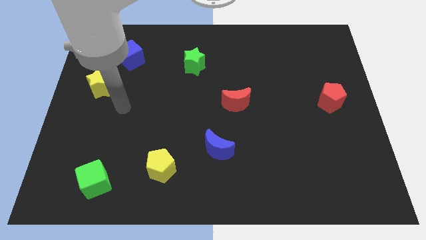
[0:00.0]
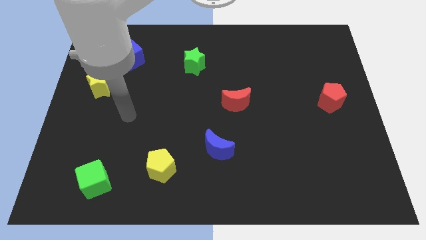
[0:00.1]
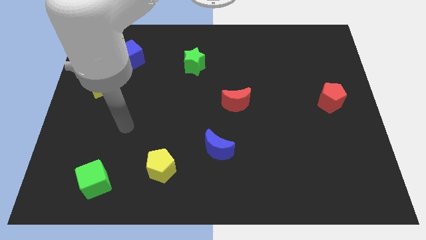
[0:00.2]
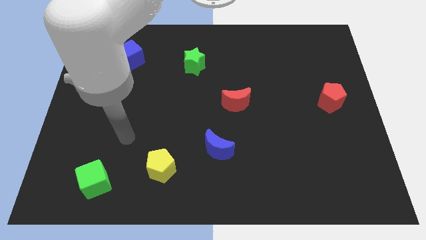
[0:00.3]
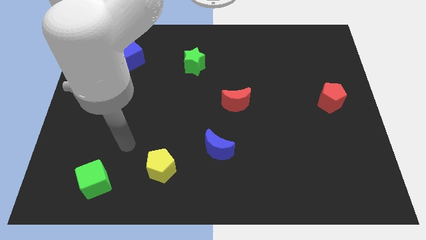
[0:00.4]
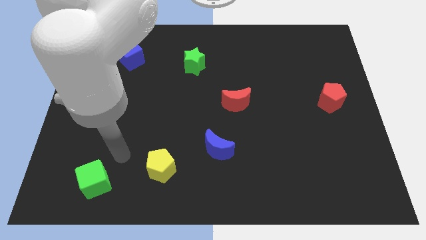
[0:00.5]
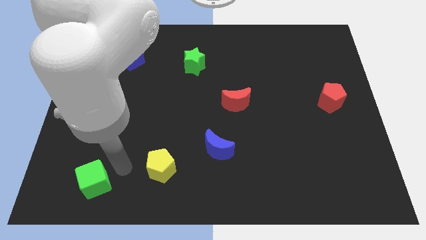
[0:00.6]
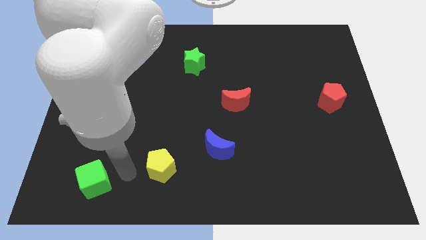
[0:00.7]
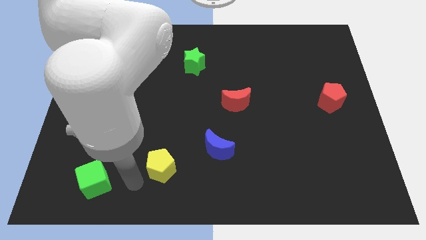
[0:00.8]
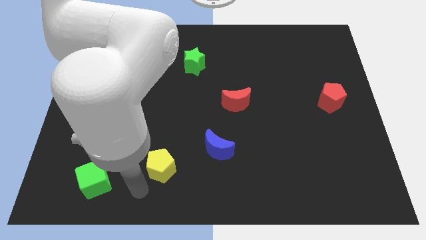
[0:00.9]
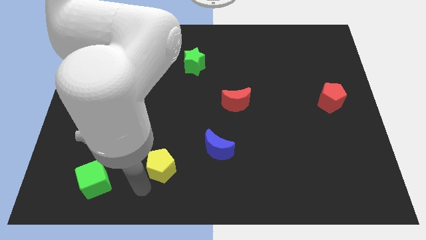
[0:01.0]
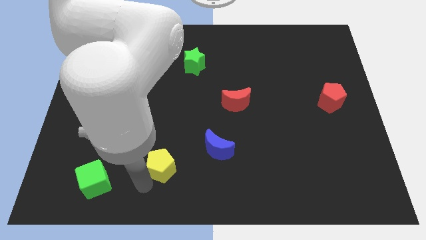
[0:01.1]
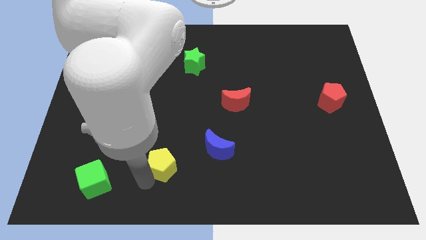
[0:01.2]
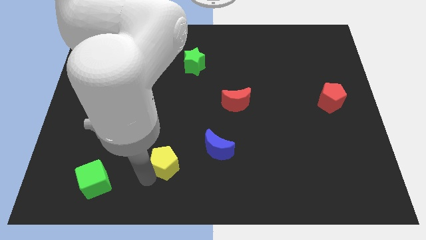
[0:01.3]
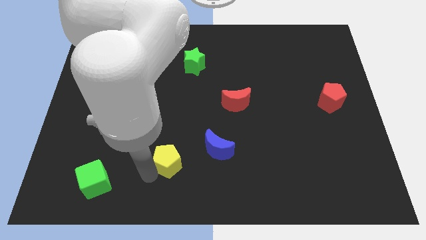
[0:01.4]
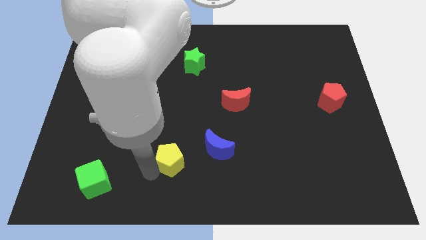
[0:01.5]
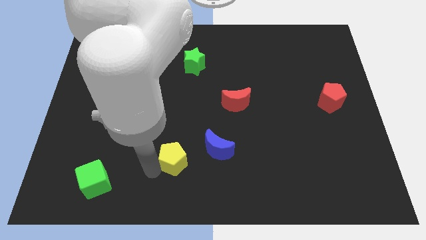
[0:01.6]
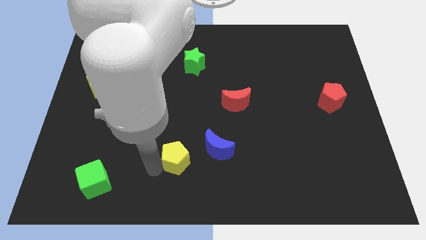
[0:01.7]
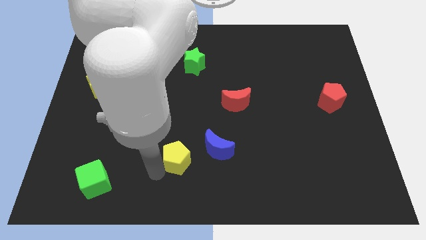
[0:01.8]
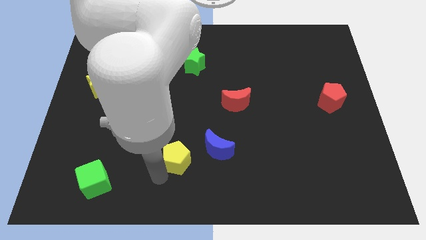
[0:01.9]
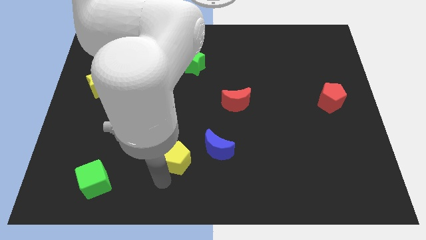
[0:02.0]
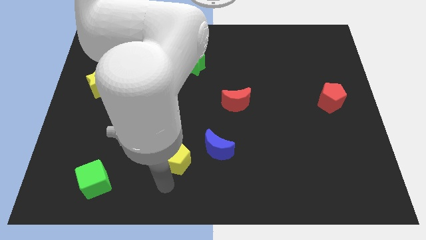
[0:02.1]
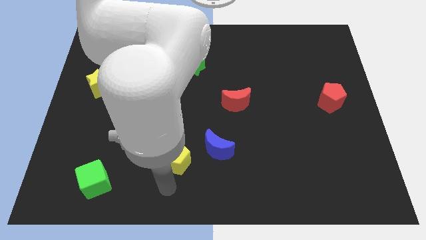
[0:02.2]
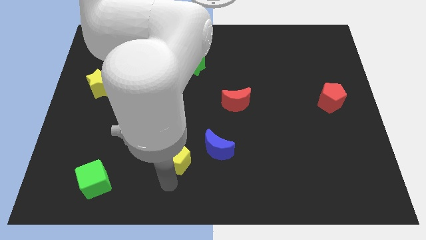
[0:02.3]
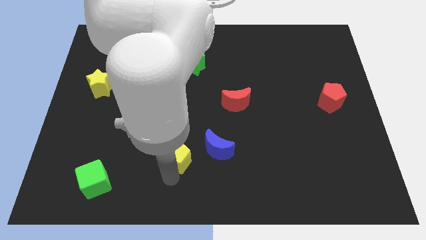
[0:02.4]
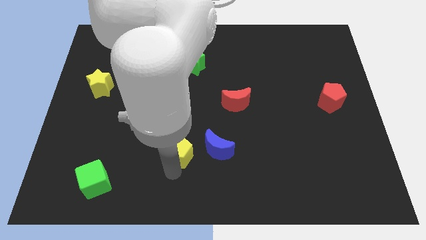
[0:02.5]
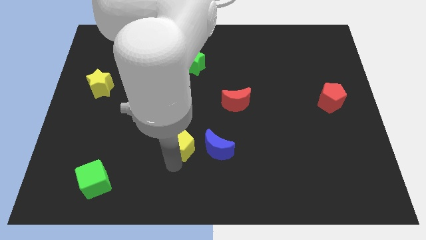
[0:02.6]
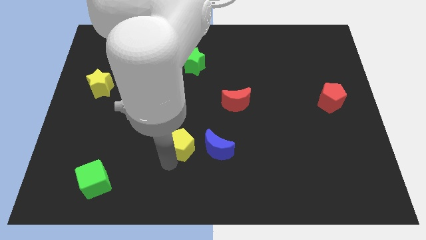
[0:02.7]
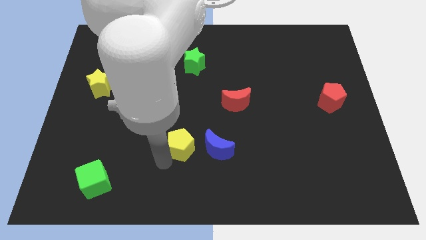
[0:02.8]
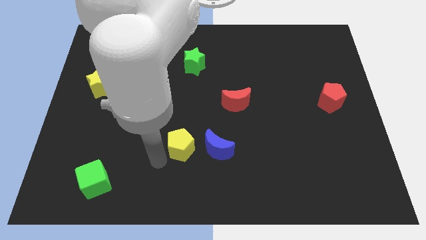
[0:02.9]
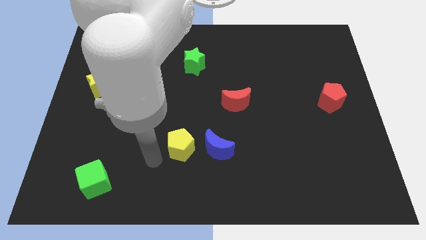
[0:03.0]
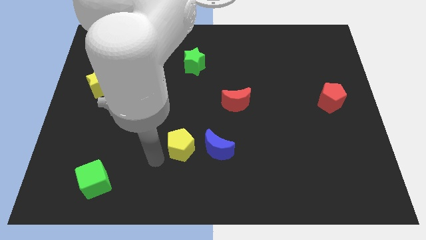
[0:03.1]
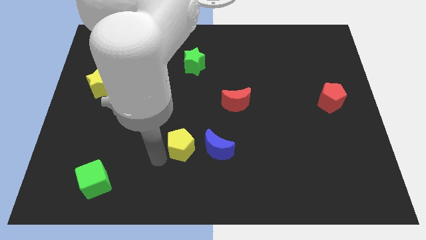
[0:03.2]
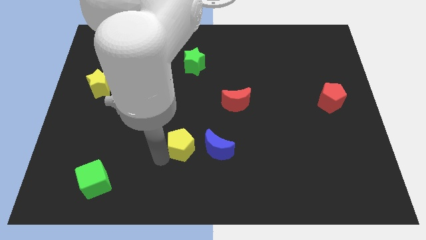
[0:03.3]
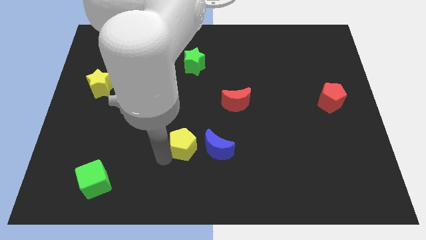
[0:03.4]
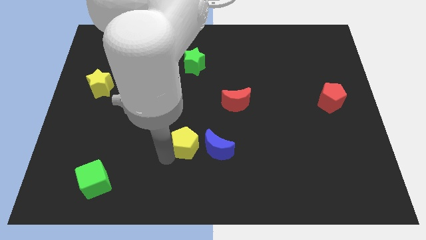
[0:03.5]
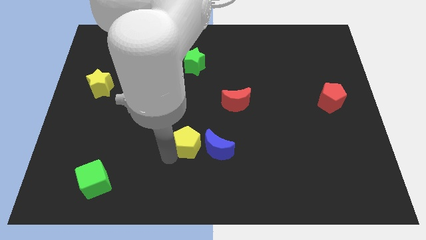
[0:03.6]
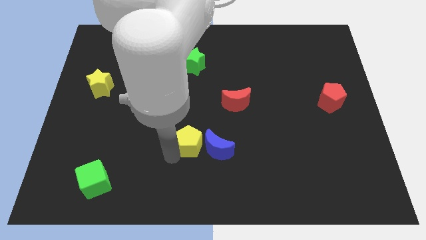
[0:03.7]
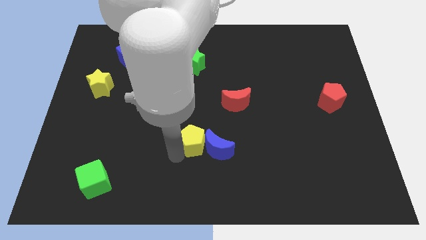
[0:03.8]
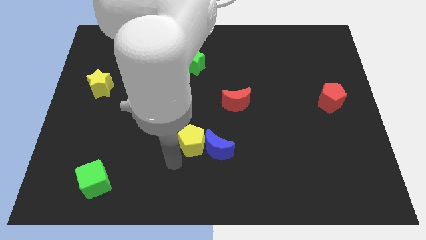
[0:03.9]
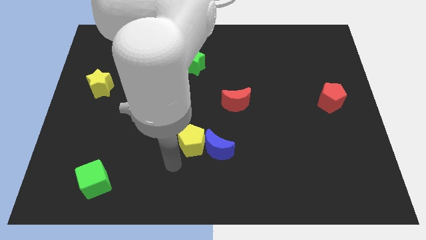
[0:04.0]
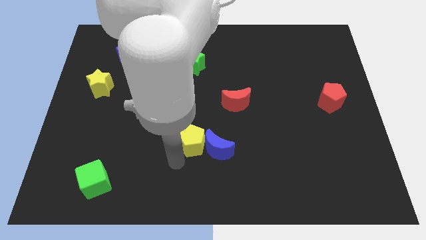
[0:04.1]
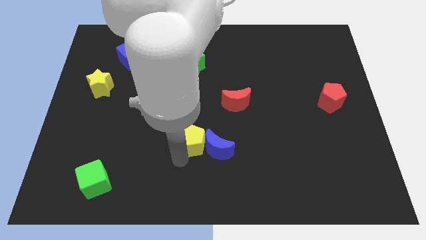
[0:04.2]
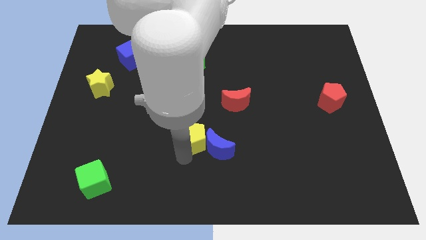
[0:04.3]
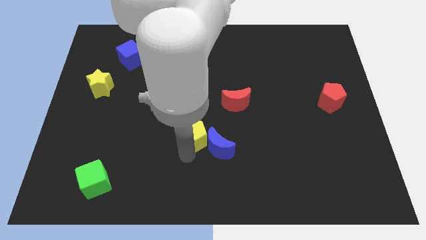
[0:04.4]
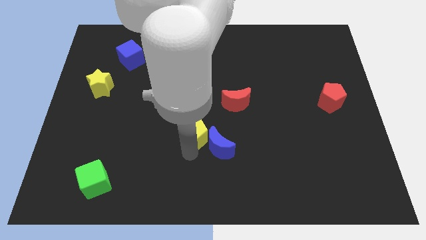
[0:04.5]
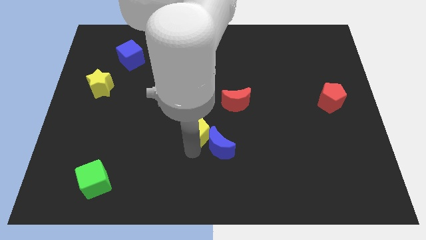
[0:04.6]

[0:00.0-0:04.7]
push the yellow pentagon to the bottom left side of the red moon

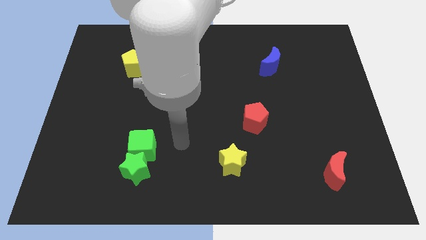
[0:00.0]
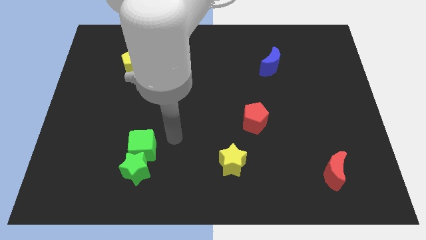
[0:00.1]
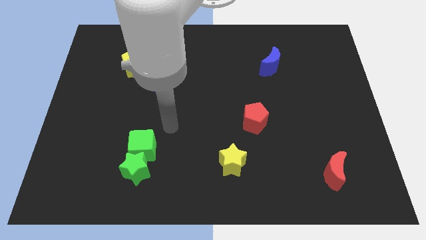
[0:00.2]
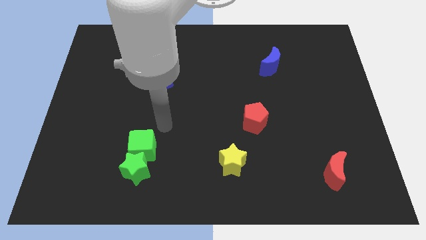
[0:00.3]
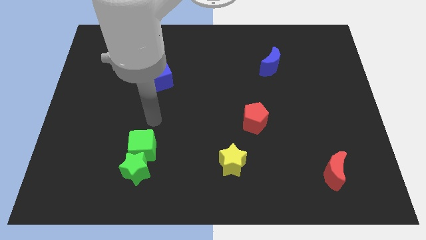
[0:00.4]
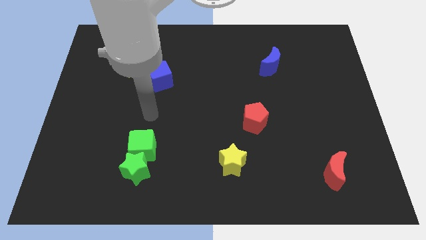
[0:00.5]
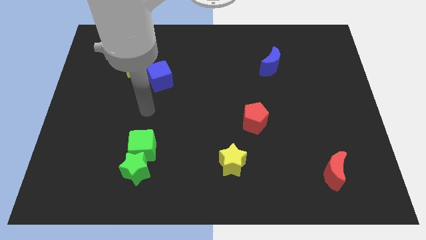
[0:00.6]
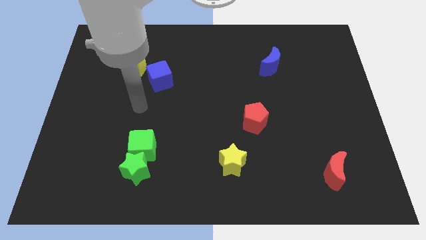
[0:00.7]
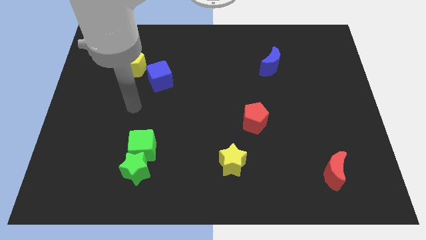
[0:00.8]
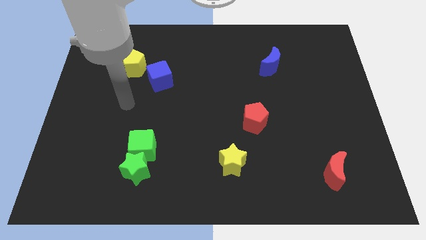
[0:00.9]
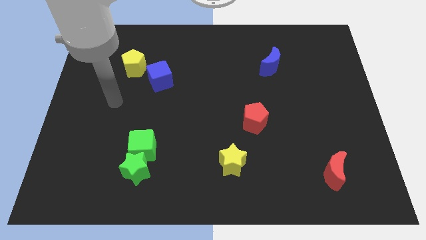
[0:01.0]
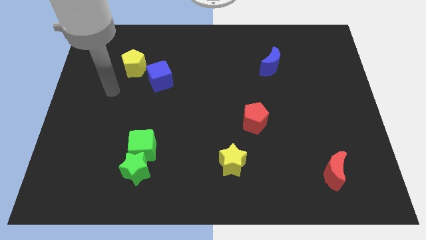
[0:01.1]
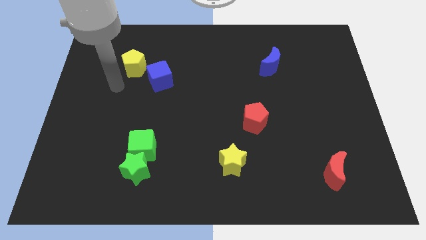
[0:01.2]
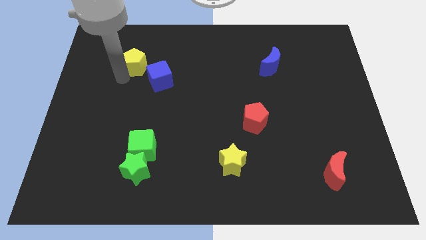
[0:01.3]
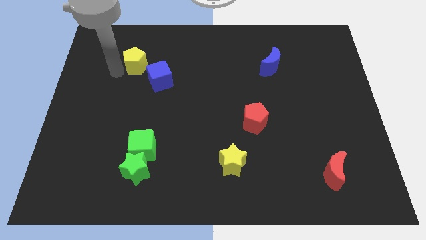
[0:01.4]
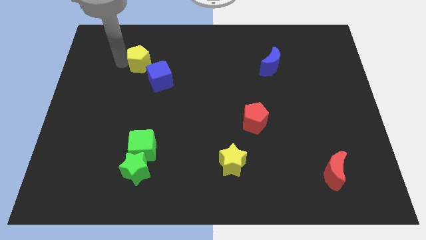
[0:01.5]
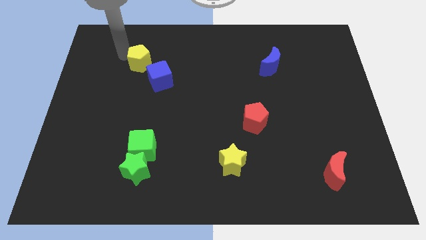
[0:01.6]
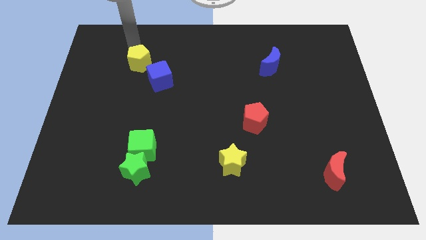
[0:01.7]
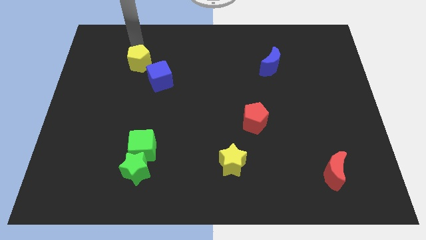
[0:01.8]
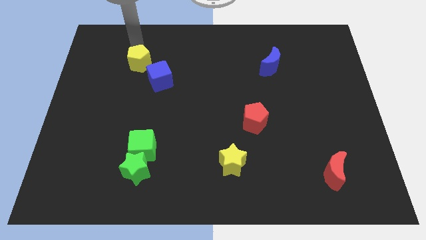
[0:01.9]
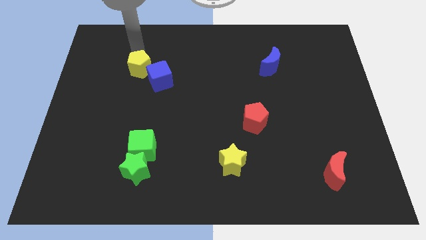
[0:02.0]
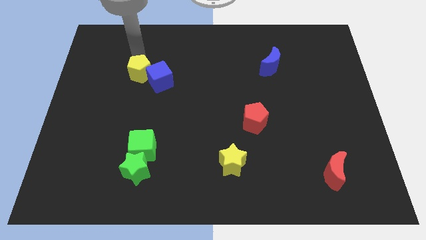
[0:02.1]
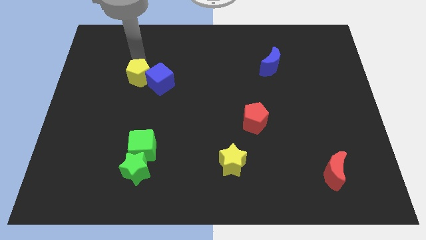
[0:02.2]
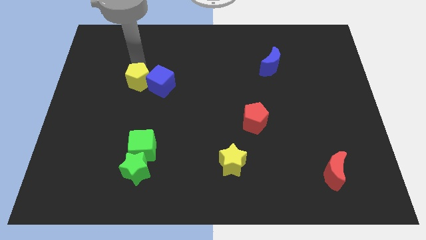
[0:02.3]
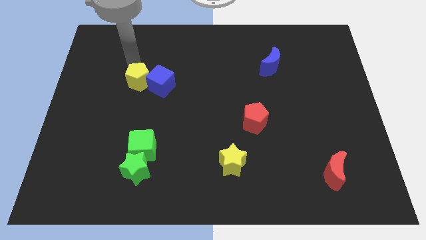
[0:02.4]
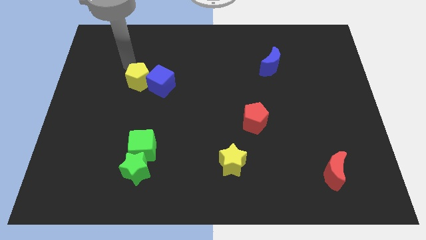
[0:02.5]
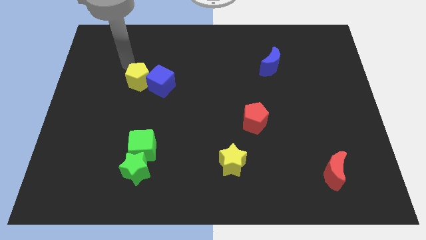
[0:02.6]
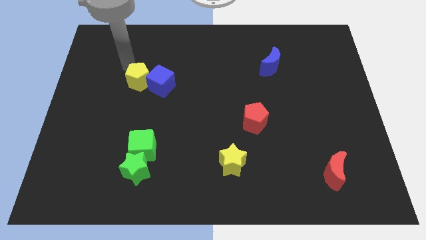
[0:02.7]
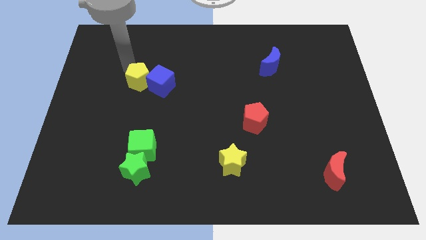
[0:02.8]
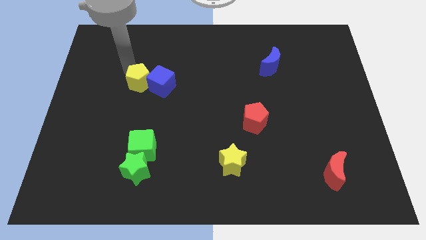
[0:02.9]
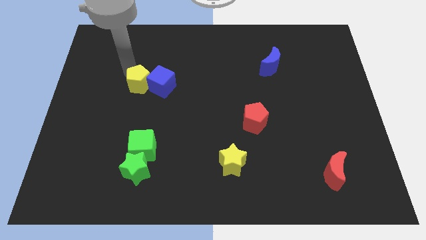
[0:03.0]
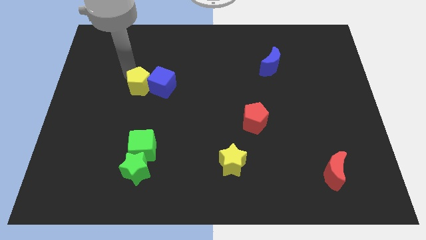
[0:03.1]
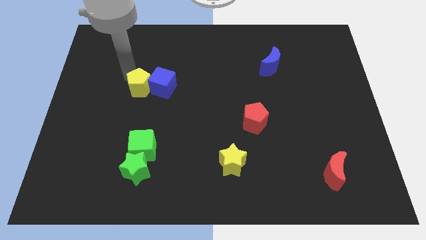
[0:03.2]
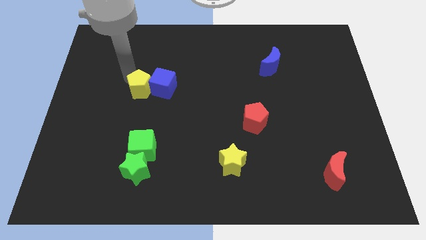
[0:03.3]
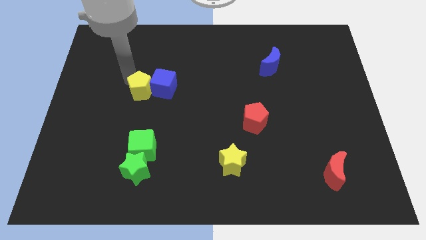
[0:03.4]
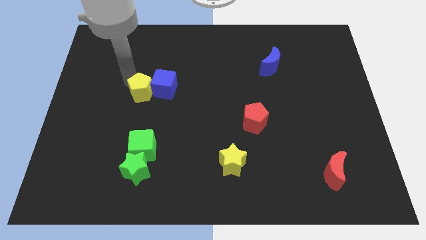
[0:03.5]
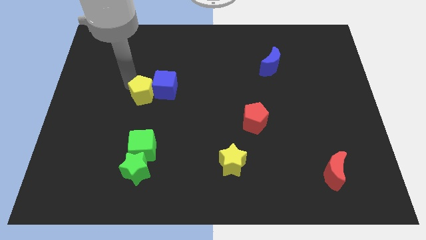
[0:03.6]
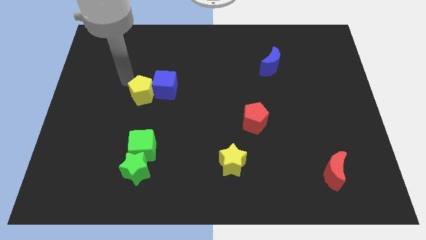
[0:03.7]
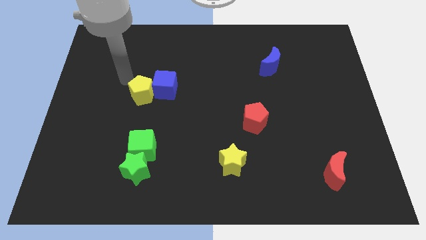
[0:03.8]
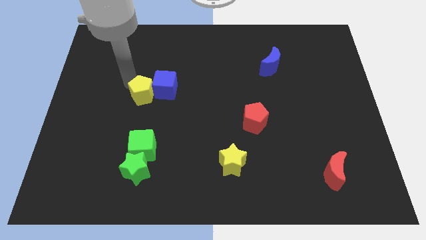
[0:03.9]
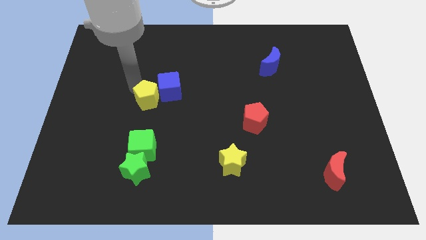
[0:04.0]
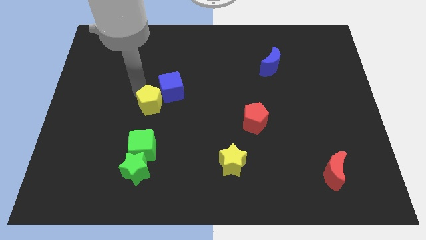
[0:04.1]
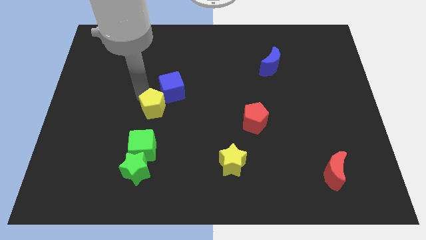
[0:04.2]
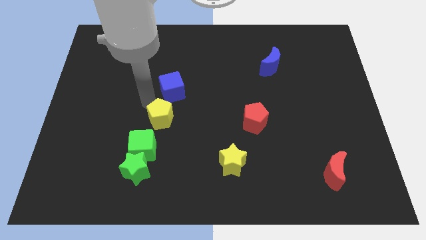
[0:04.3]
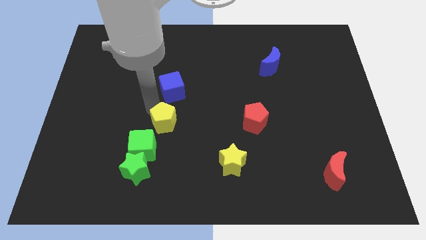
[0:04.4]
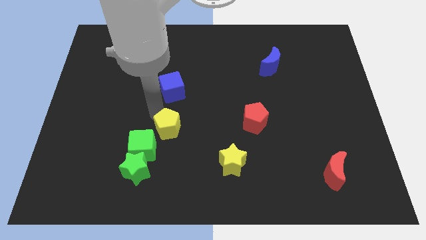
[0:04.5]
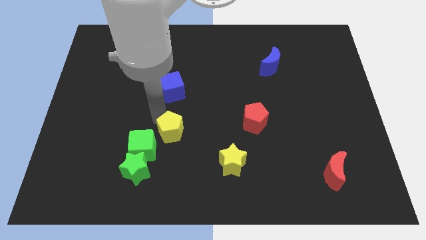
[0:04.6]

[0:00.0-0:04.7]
push the yellow pentagon right of the green cube
